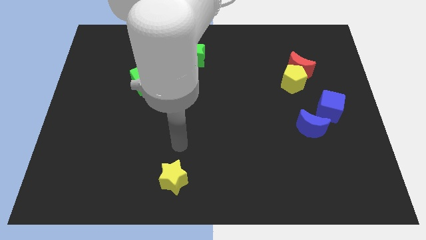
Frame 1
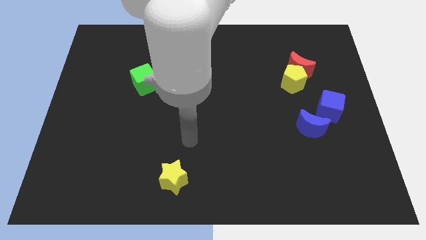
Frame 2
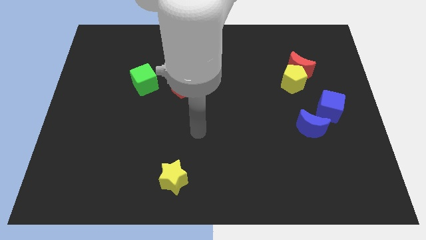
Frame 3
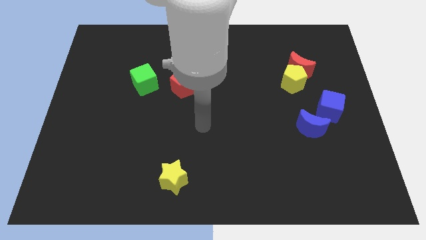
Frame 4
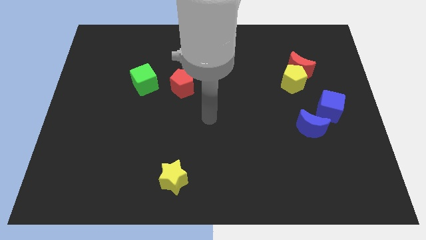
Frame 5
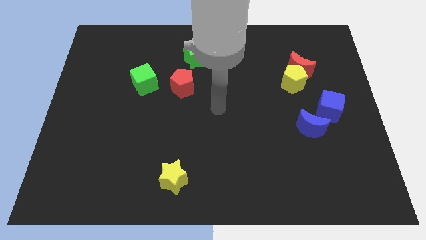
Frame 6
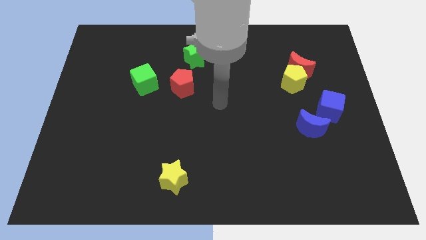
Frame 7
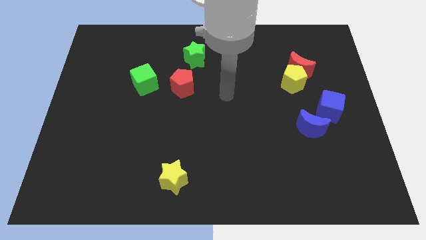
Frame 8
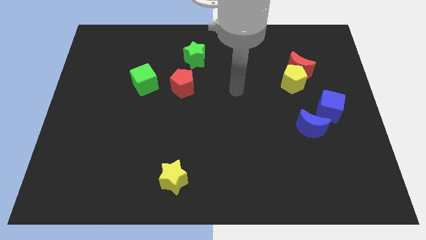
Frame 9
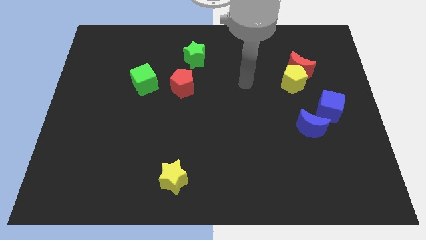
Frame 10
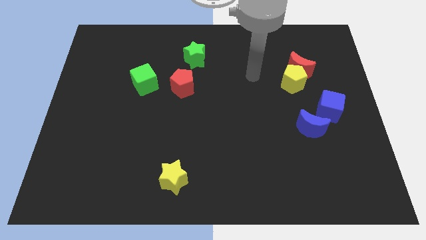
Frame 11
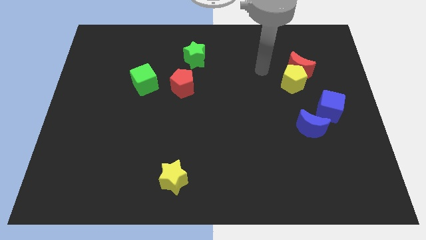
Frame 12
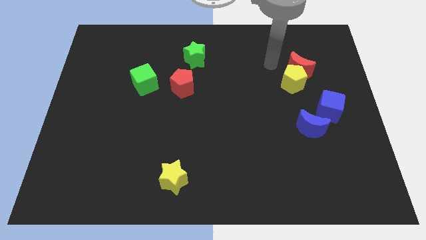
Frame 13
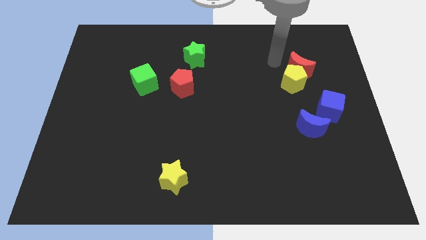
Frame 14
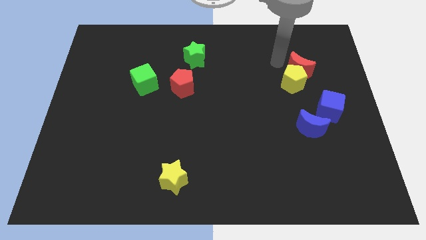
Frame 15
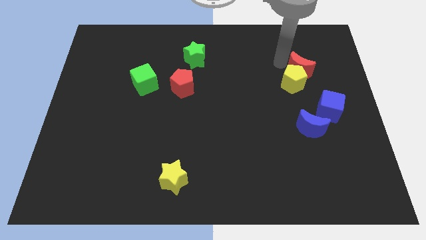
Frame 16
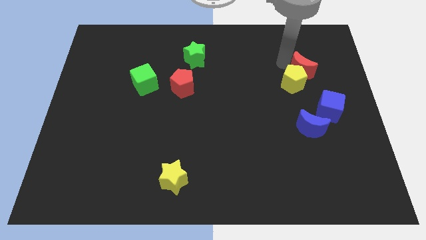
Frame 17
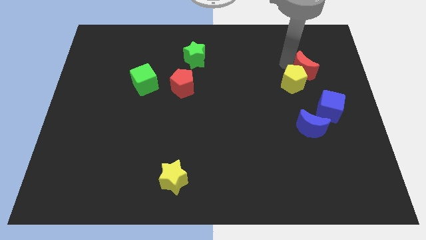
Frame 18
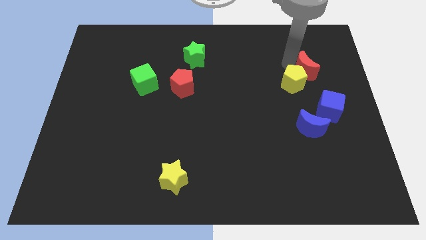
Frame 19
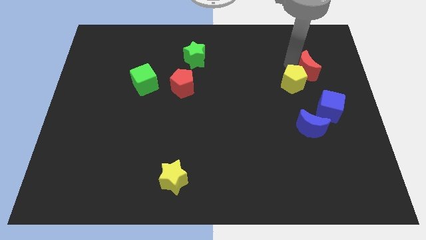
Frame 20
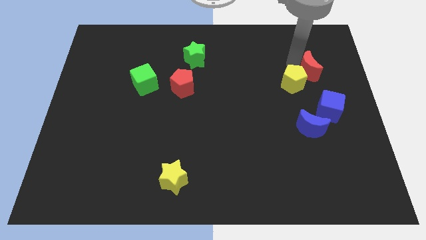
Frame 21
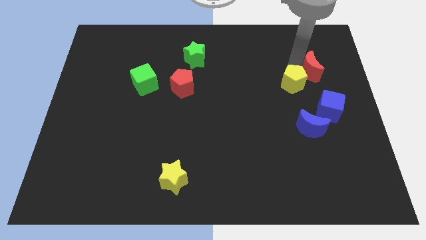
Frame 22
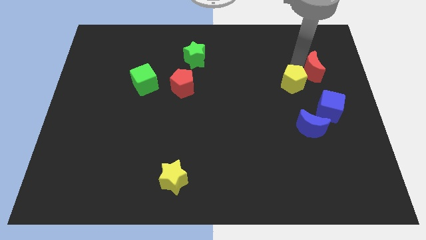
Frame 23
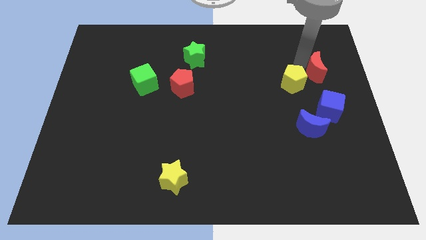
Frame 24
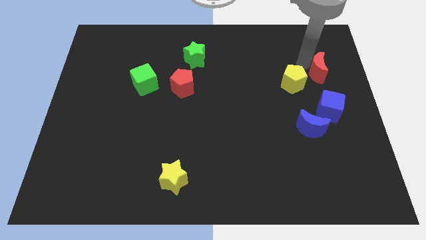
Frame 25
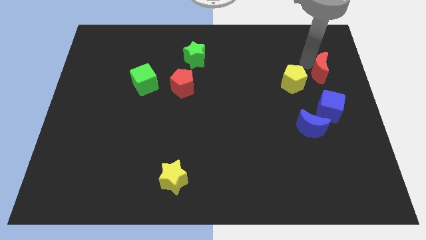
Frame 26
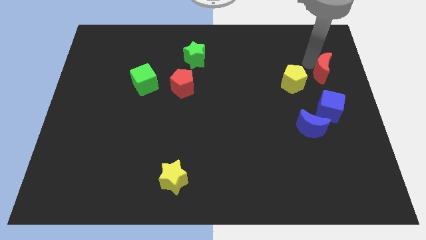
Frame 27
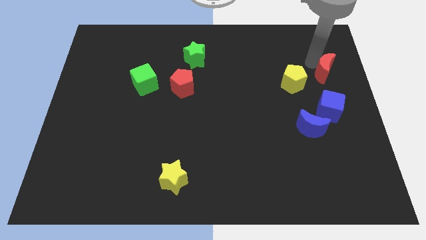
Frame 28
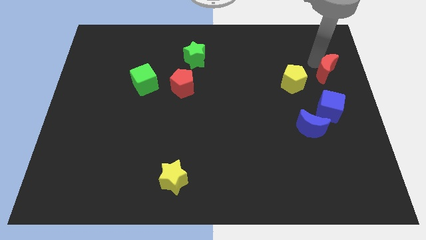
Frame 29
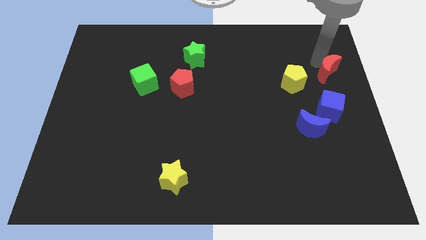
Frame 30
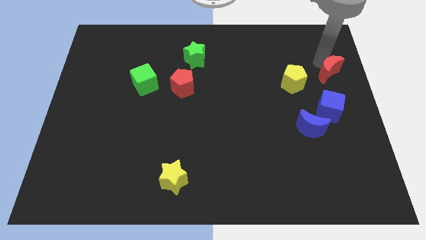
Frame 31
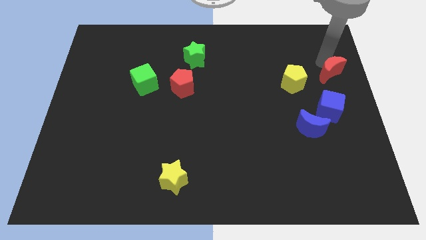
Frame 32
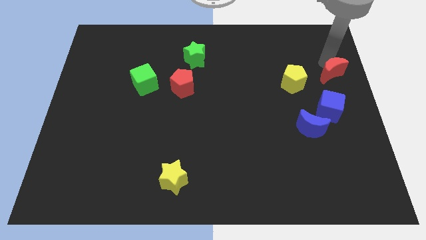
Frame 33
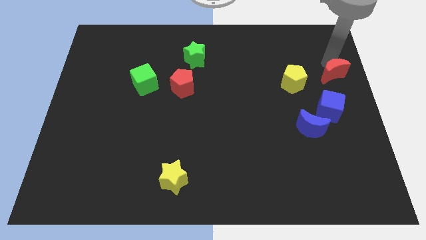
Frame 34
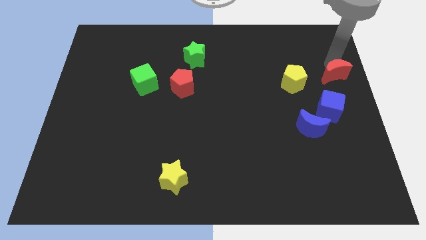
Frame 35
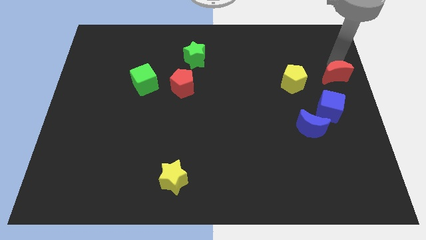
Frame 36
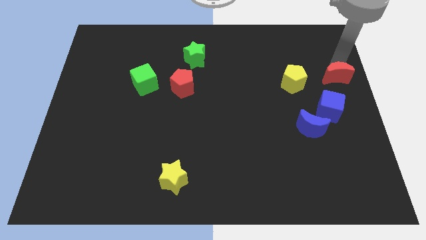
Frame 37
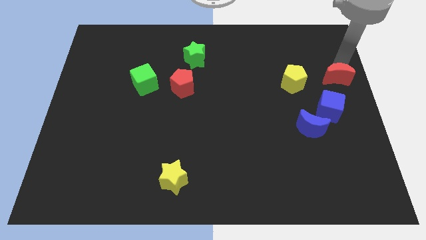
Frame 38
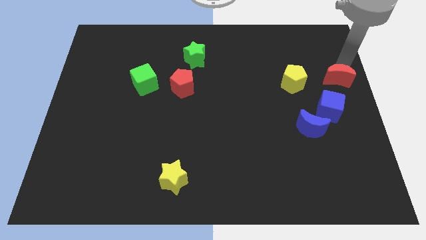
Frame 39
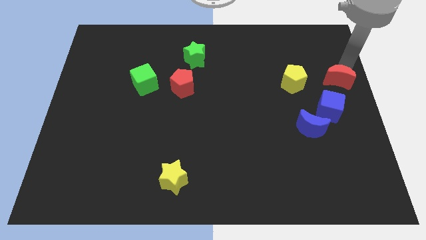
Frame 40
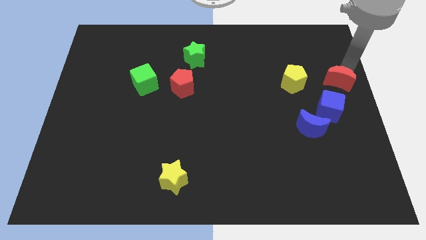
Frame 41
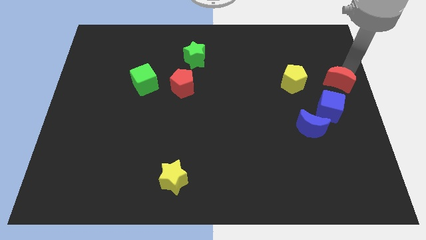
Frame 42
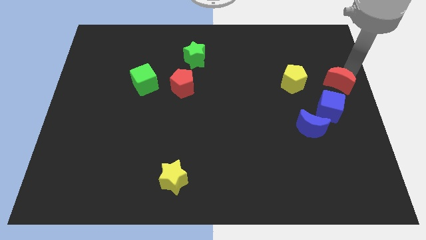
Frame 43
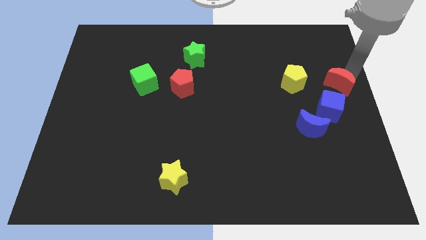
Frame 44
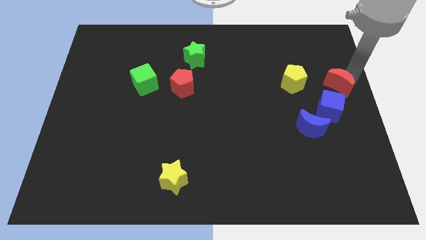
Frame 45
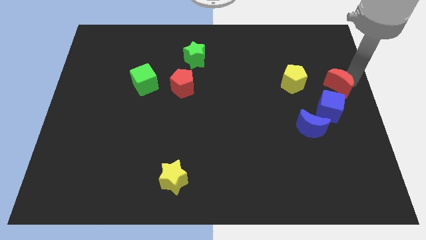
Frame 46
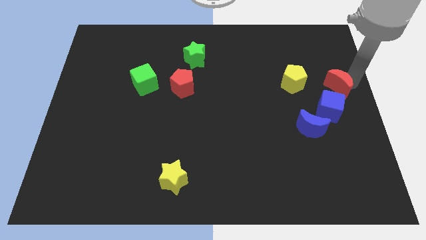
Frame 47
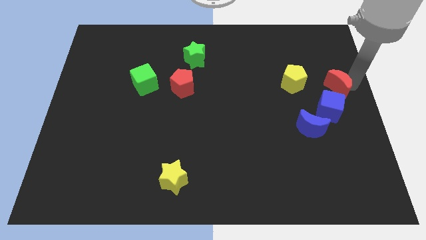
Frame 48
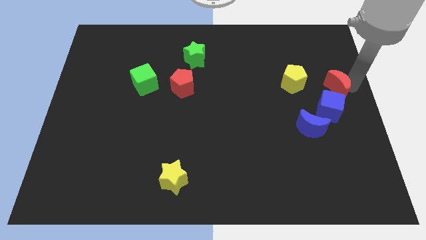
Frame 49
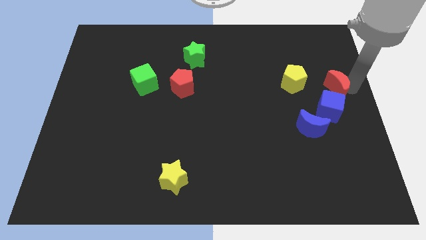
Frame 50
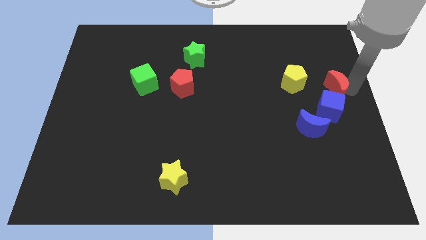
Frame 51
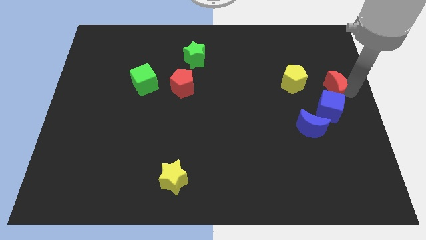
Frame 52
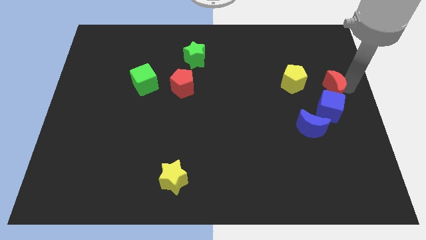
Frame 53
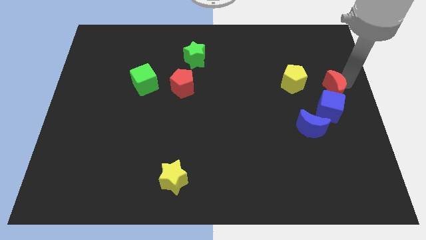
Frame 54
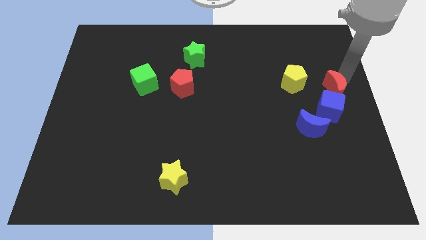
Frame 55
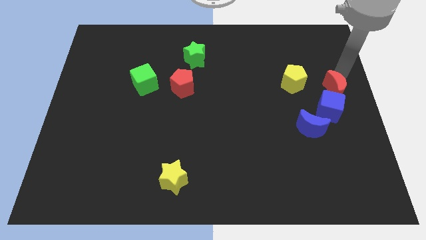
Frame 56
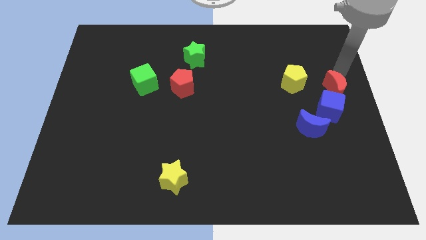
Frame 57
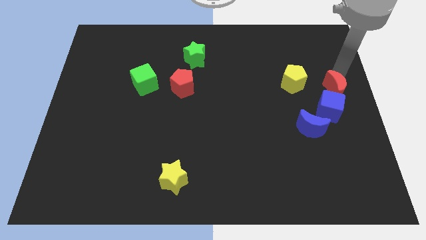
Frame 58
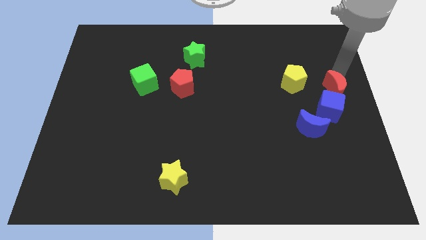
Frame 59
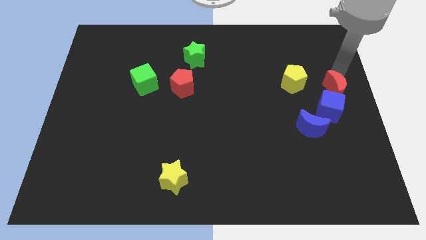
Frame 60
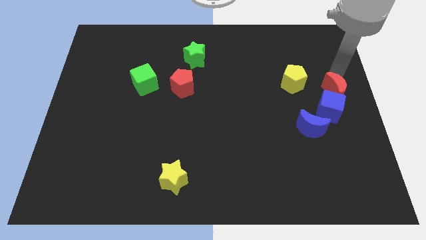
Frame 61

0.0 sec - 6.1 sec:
push the red moon towards the blue cube
